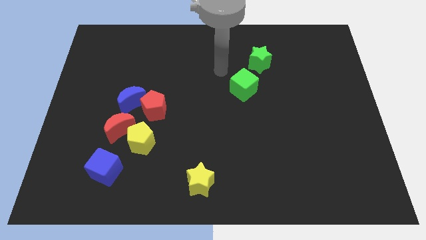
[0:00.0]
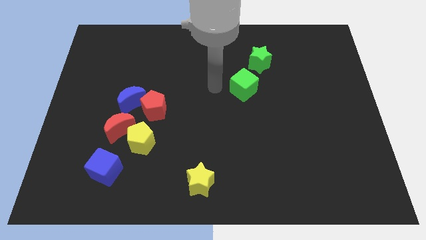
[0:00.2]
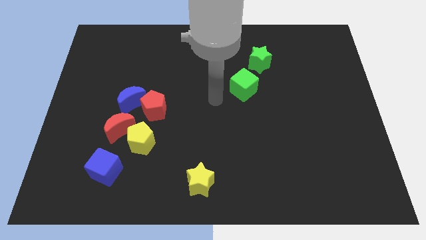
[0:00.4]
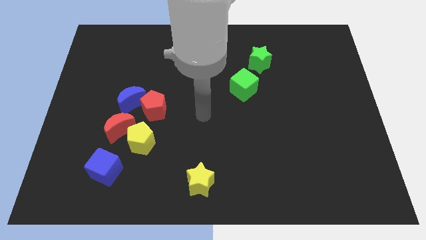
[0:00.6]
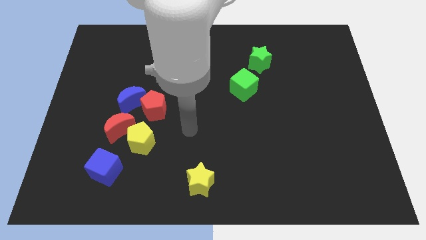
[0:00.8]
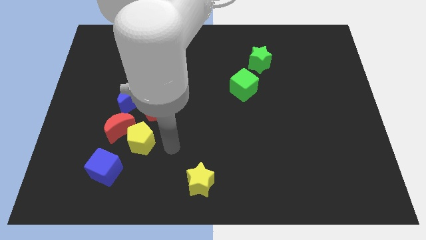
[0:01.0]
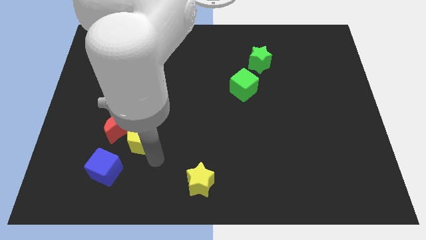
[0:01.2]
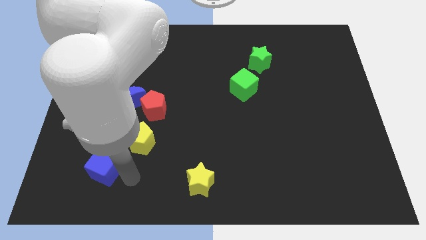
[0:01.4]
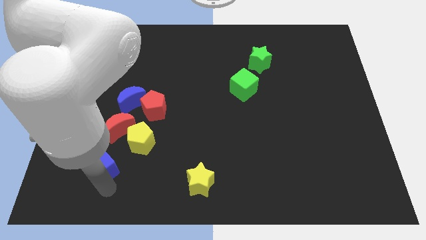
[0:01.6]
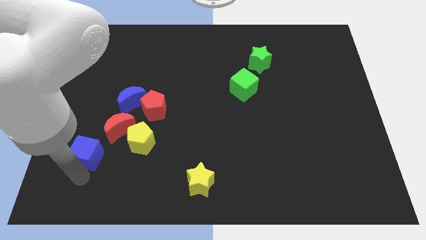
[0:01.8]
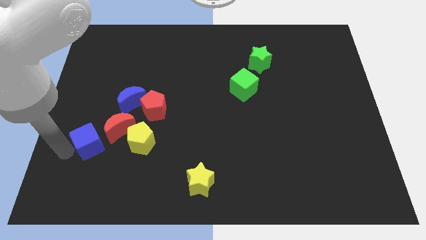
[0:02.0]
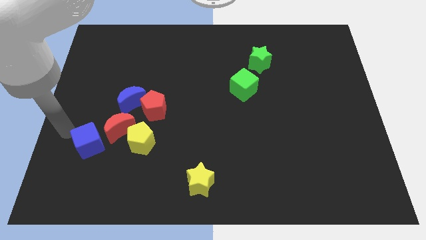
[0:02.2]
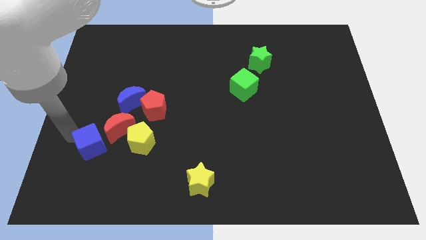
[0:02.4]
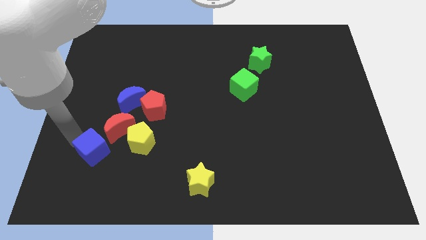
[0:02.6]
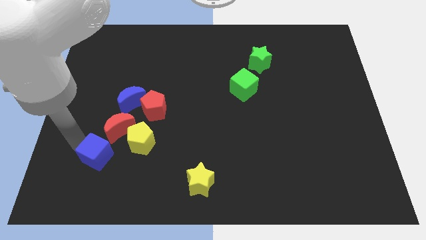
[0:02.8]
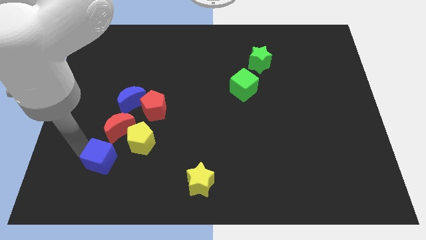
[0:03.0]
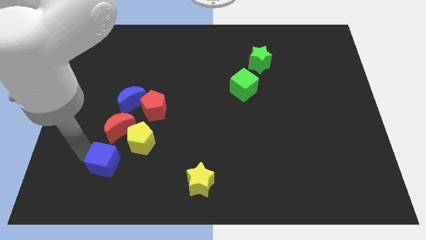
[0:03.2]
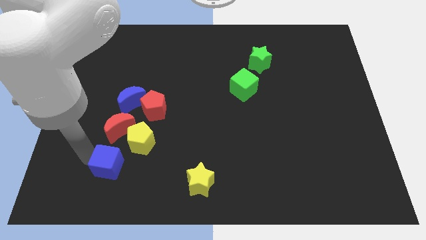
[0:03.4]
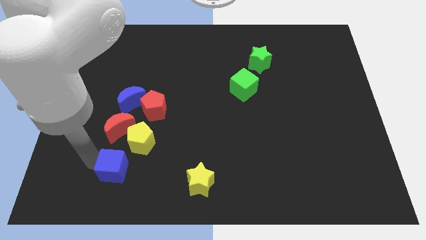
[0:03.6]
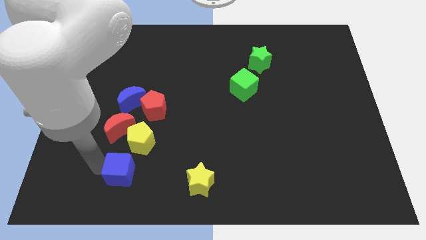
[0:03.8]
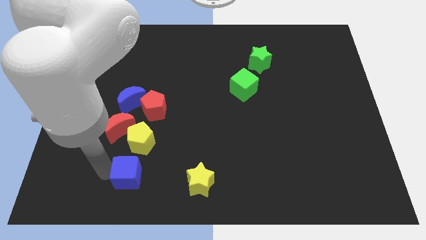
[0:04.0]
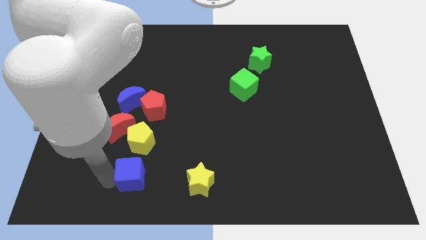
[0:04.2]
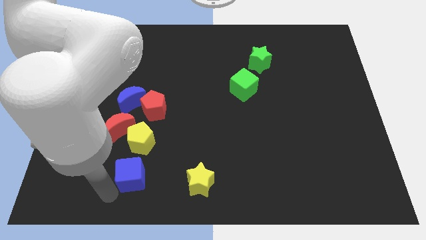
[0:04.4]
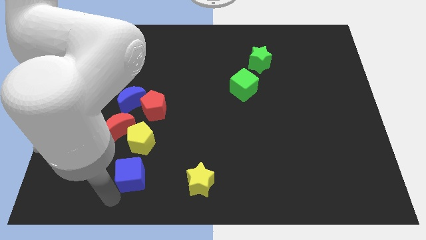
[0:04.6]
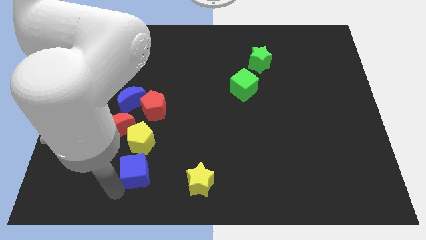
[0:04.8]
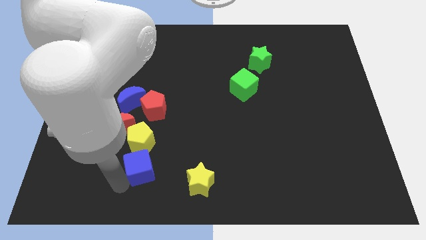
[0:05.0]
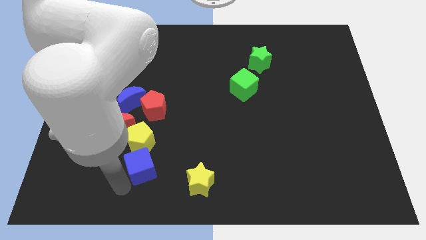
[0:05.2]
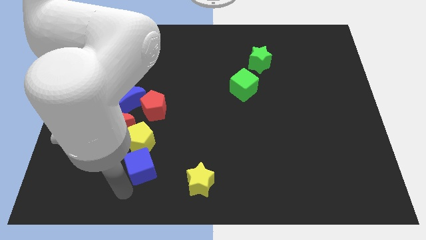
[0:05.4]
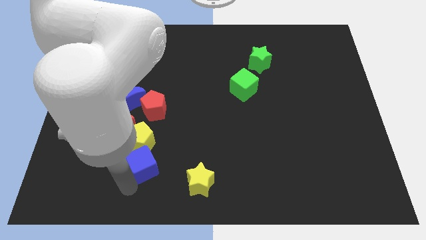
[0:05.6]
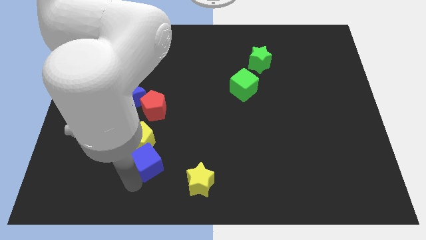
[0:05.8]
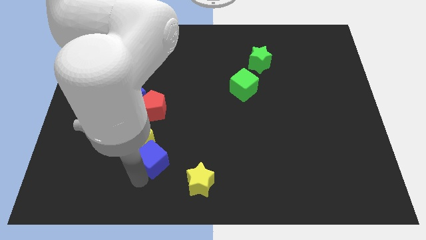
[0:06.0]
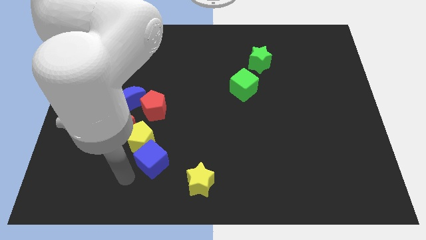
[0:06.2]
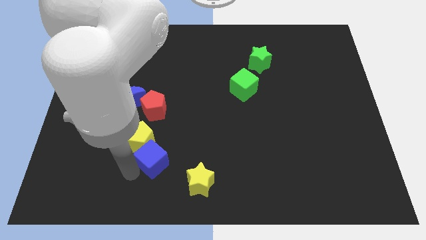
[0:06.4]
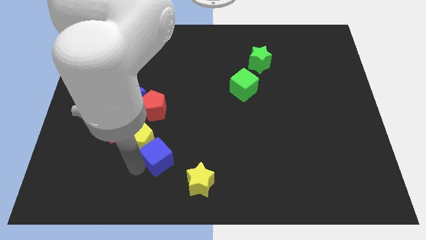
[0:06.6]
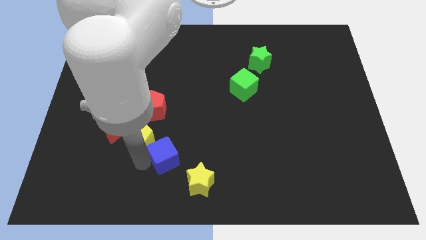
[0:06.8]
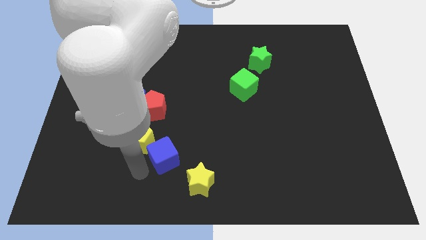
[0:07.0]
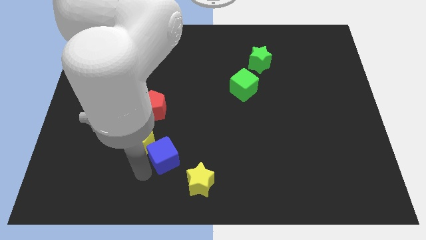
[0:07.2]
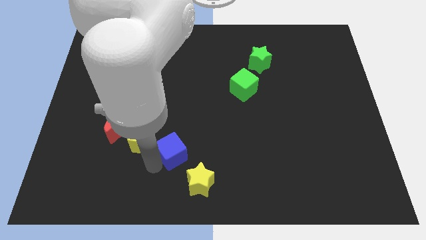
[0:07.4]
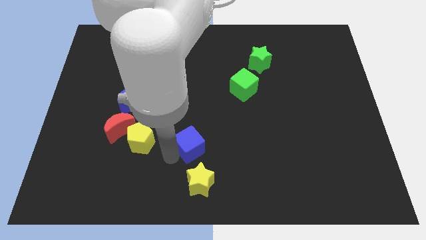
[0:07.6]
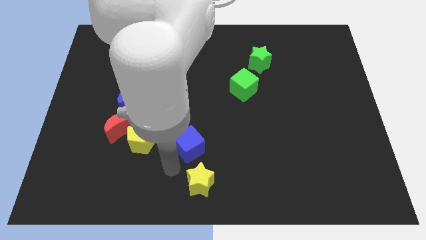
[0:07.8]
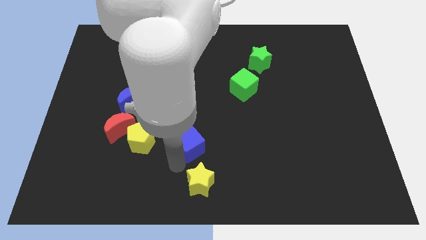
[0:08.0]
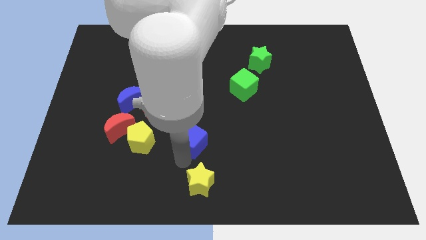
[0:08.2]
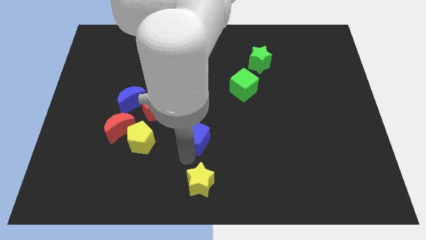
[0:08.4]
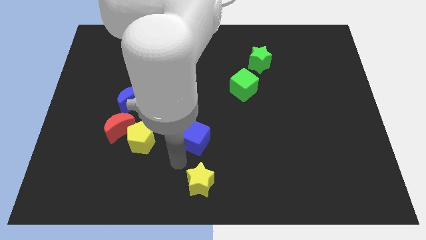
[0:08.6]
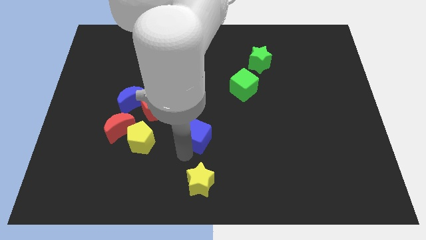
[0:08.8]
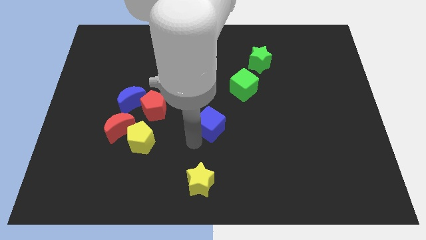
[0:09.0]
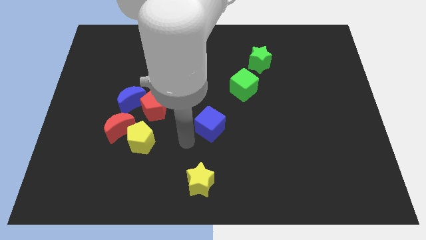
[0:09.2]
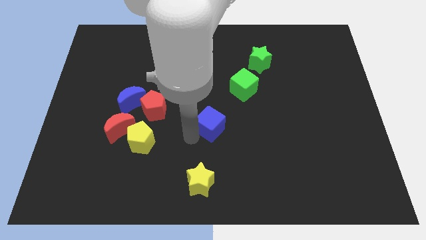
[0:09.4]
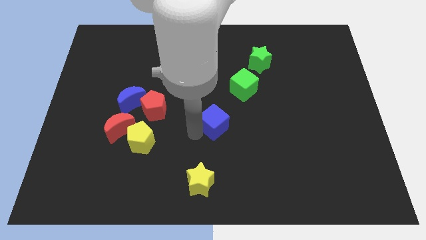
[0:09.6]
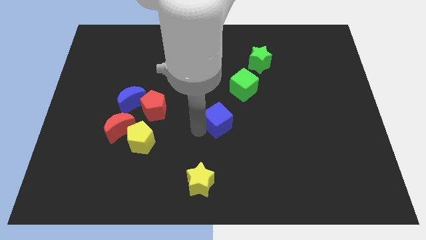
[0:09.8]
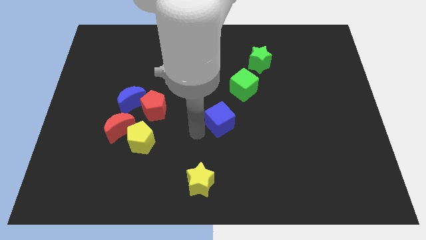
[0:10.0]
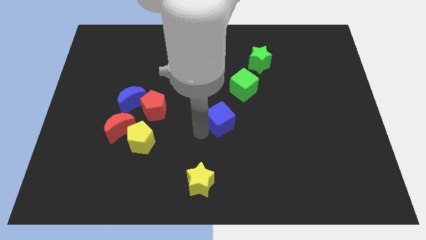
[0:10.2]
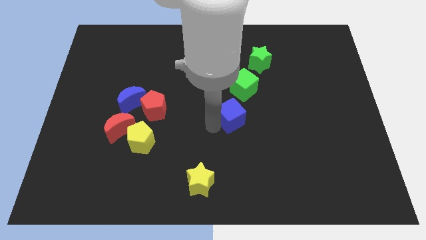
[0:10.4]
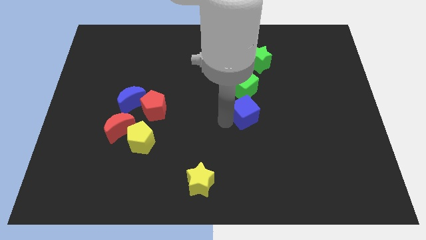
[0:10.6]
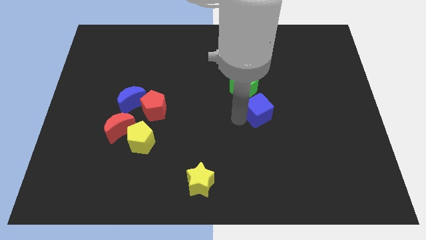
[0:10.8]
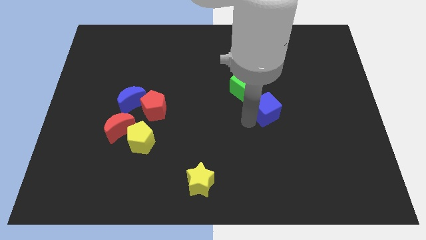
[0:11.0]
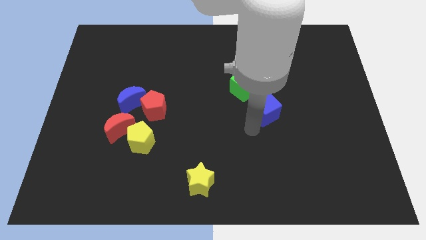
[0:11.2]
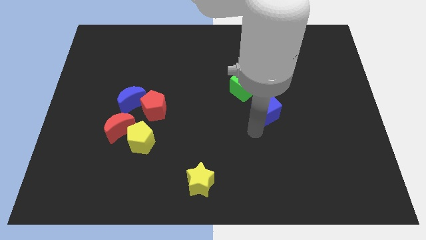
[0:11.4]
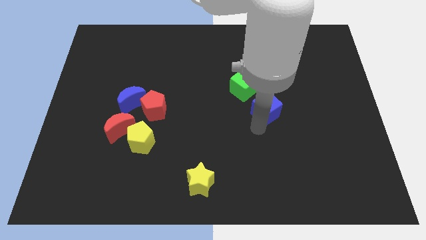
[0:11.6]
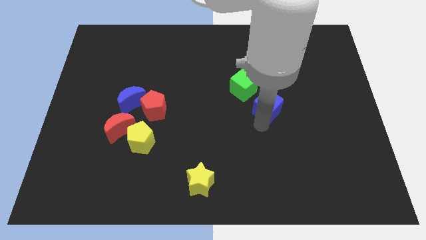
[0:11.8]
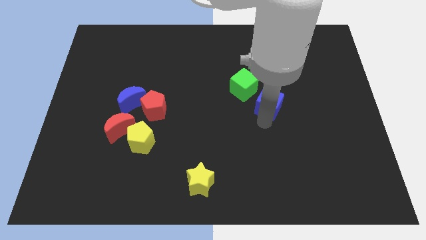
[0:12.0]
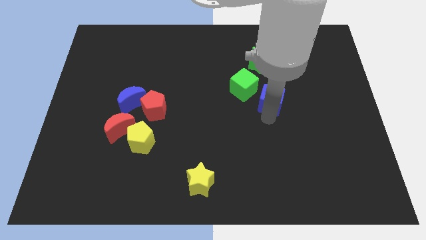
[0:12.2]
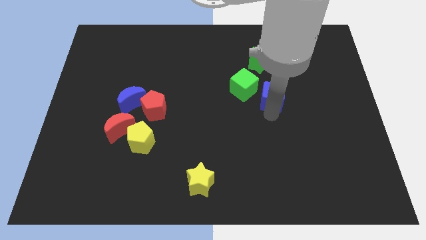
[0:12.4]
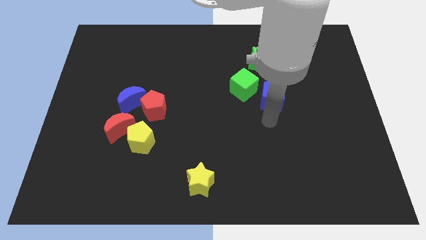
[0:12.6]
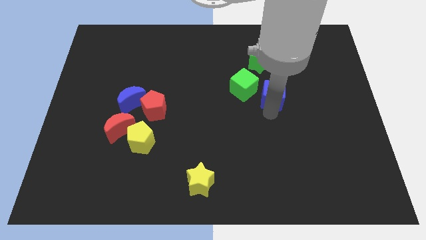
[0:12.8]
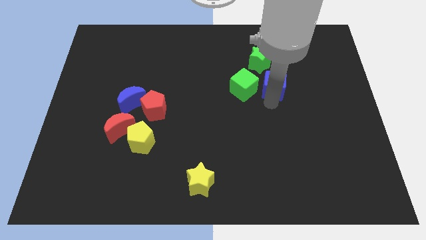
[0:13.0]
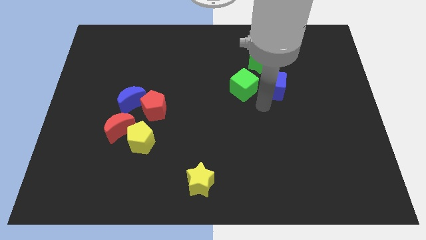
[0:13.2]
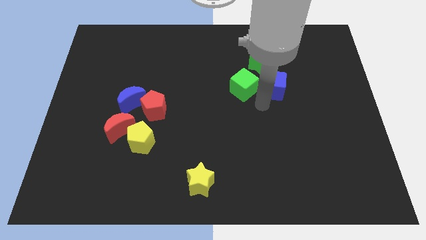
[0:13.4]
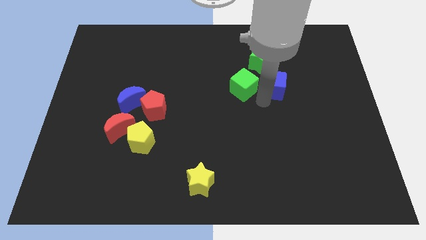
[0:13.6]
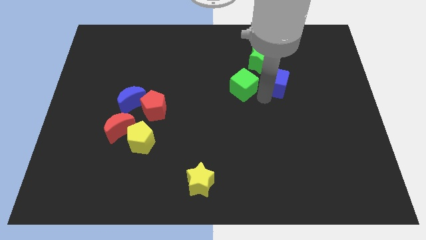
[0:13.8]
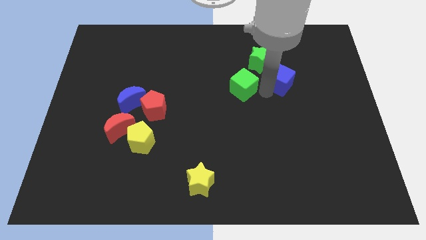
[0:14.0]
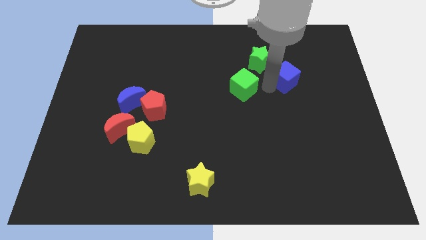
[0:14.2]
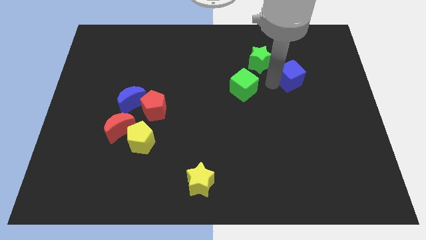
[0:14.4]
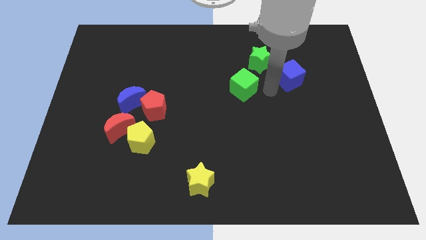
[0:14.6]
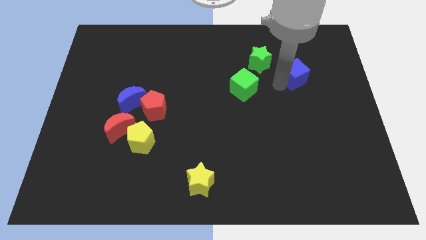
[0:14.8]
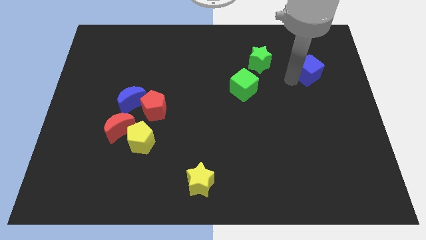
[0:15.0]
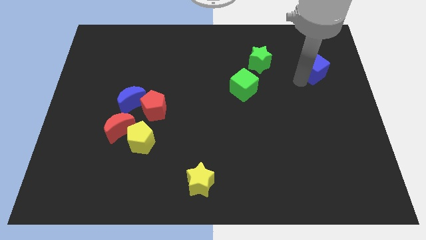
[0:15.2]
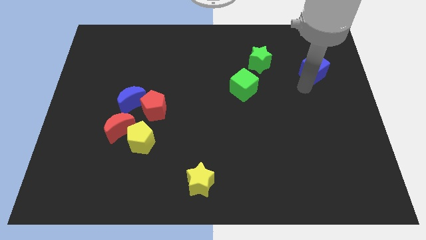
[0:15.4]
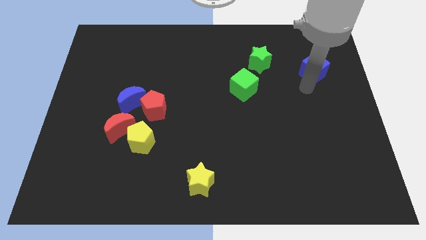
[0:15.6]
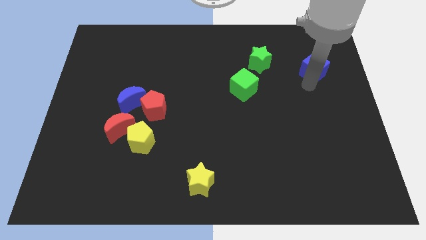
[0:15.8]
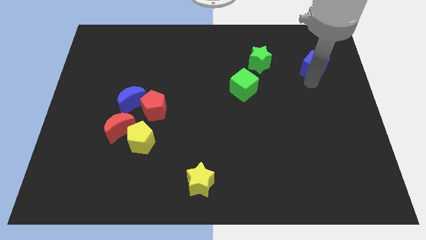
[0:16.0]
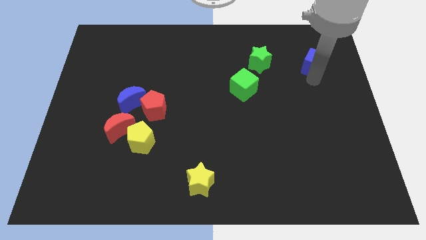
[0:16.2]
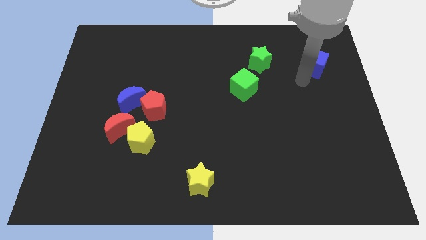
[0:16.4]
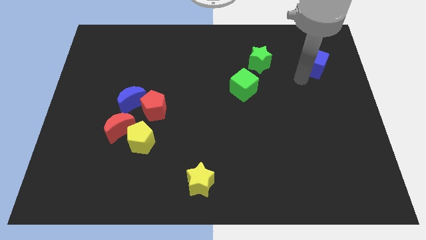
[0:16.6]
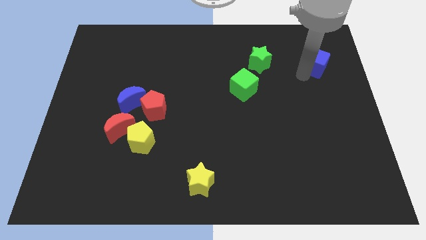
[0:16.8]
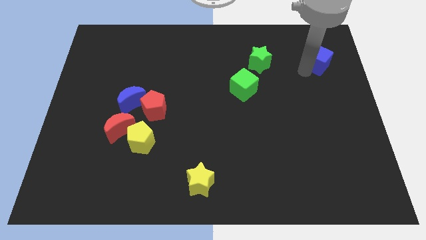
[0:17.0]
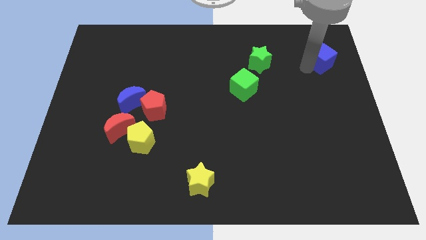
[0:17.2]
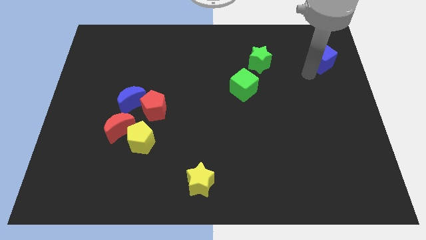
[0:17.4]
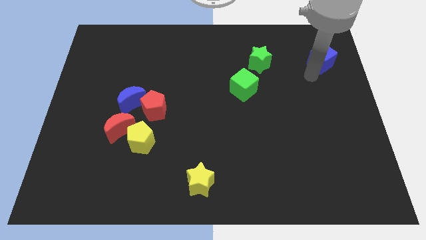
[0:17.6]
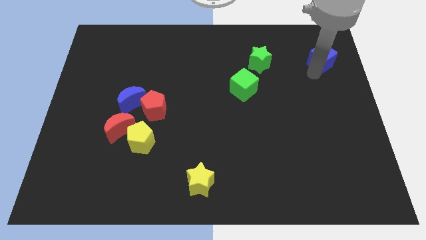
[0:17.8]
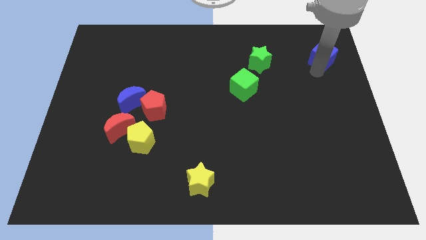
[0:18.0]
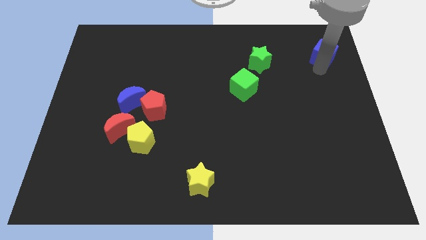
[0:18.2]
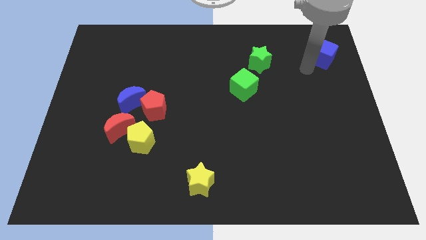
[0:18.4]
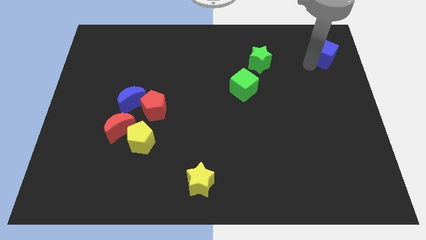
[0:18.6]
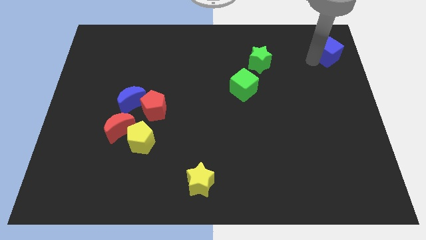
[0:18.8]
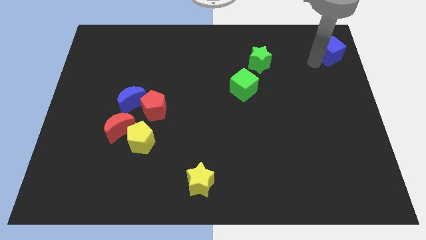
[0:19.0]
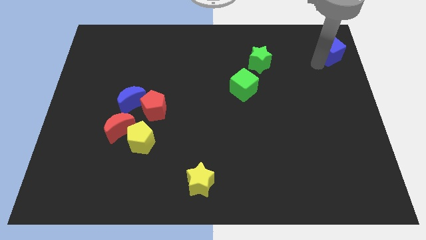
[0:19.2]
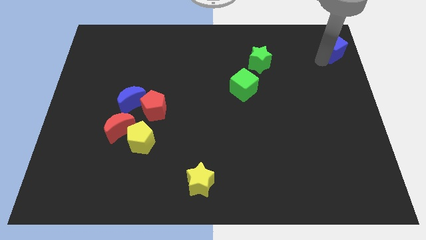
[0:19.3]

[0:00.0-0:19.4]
push the blue cube to the top right corner
